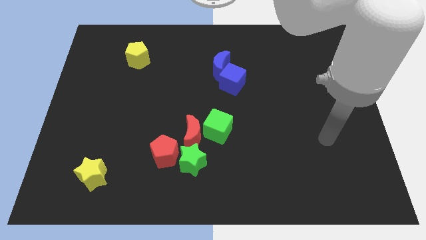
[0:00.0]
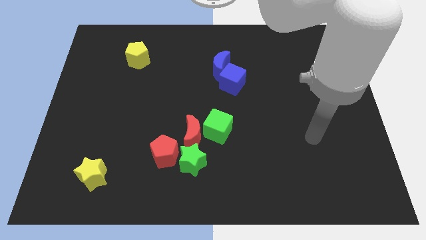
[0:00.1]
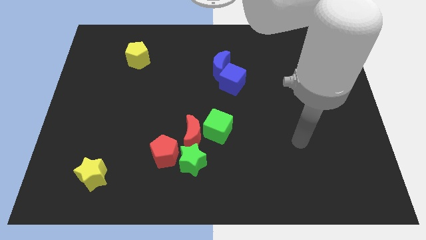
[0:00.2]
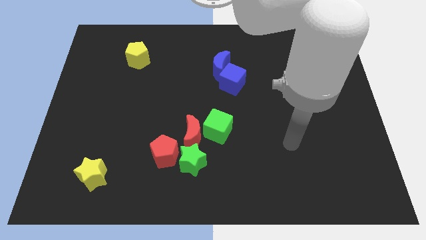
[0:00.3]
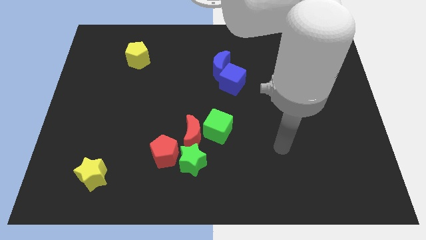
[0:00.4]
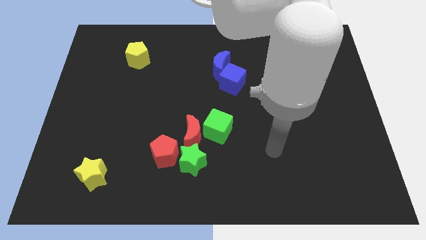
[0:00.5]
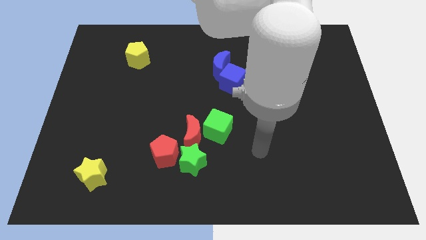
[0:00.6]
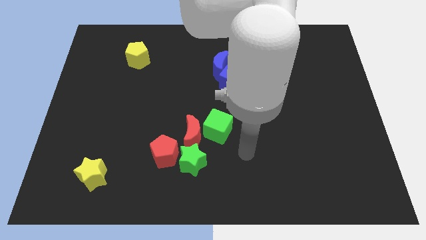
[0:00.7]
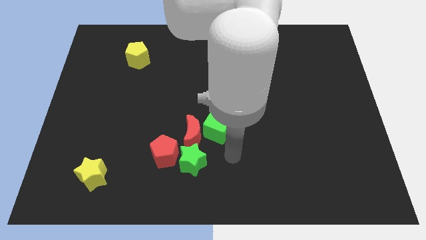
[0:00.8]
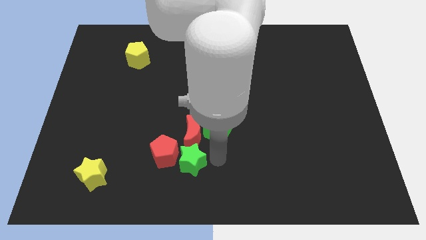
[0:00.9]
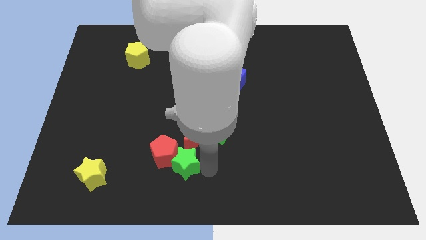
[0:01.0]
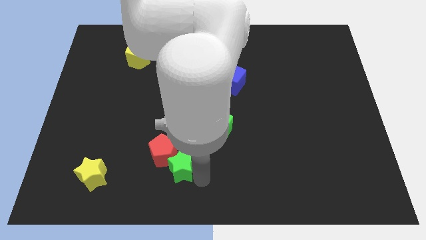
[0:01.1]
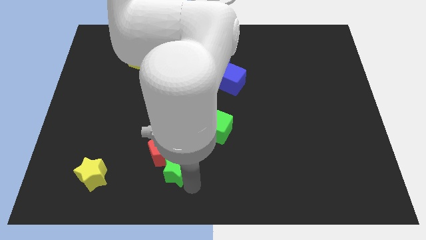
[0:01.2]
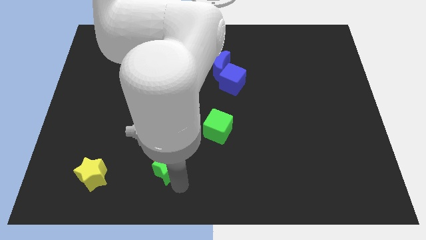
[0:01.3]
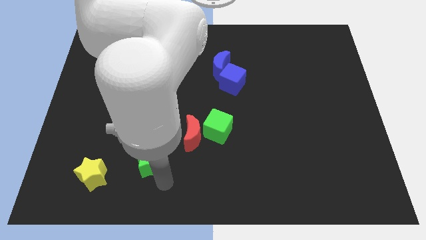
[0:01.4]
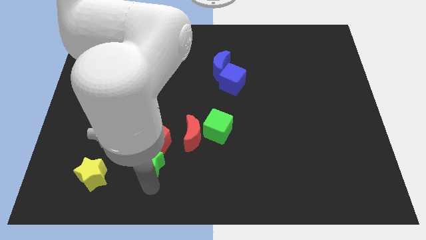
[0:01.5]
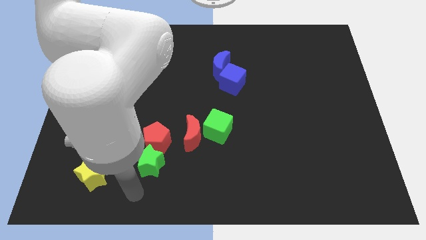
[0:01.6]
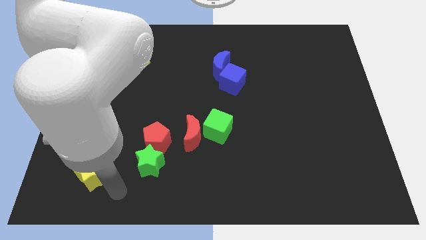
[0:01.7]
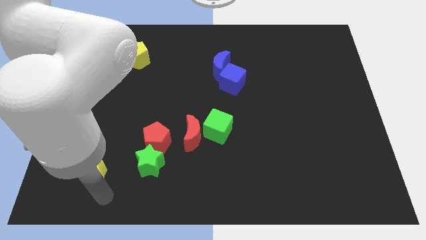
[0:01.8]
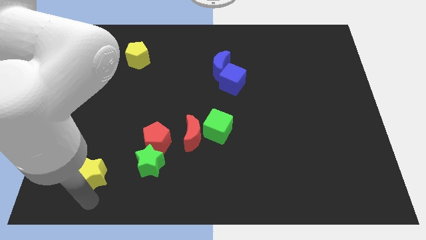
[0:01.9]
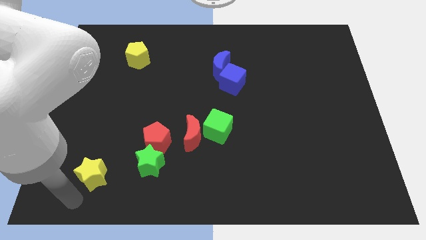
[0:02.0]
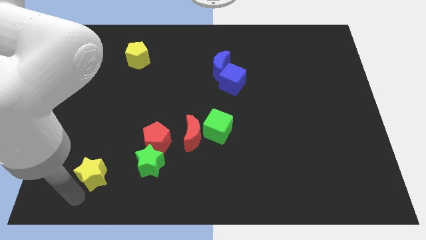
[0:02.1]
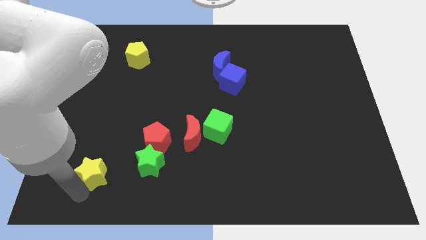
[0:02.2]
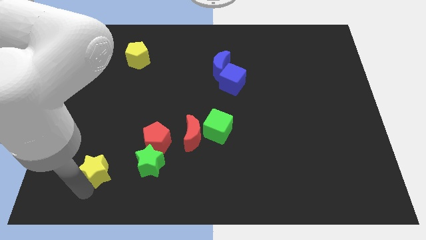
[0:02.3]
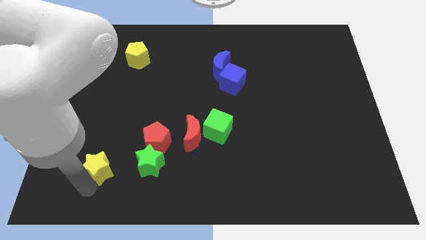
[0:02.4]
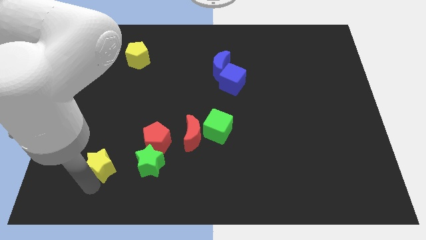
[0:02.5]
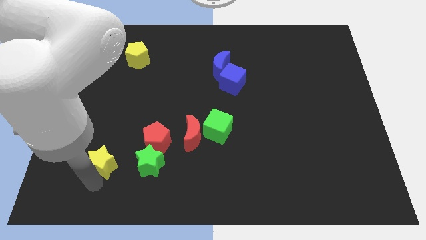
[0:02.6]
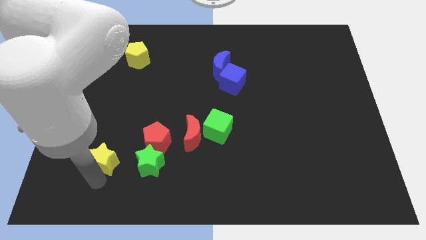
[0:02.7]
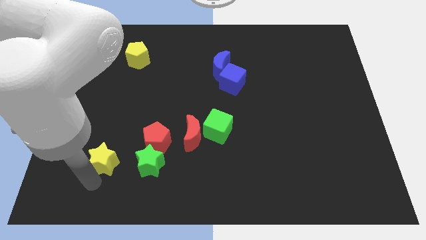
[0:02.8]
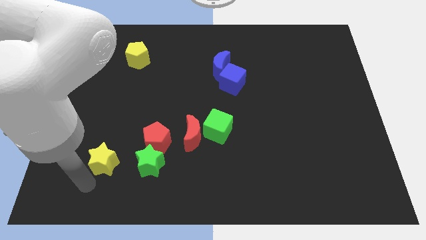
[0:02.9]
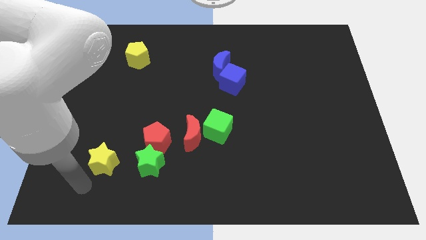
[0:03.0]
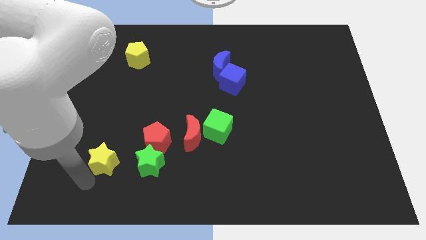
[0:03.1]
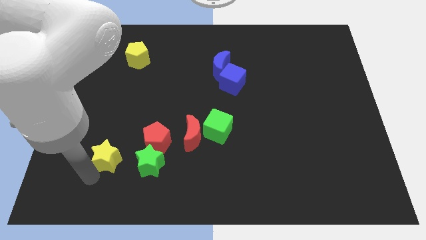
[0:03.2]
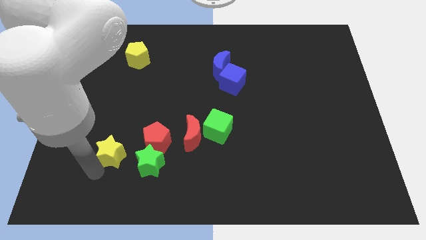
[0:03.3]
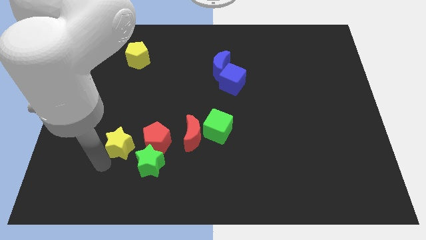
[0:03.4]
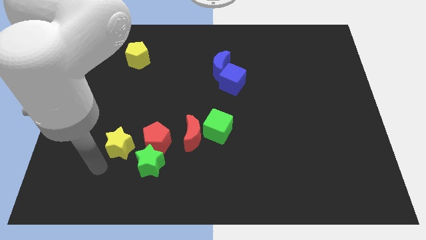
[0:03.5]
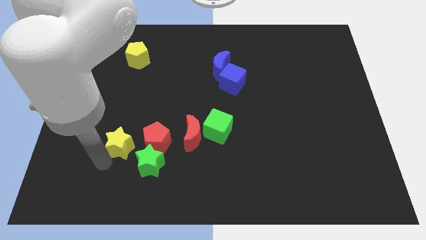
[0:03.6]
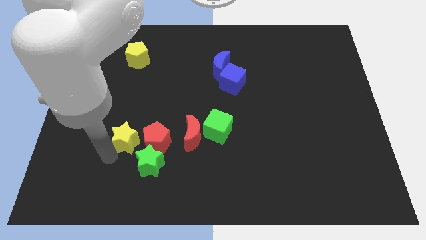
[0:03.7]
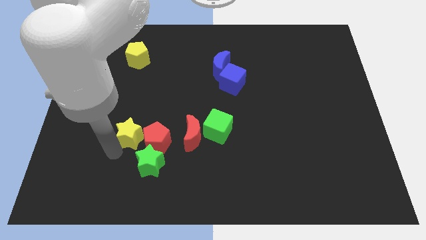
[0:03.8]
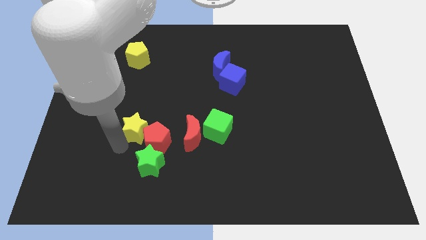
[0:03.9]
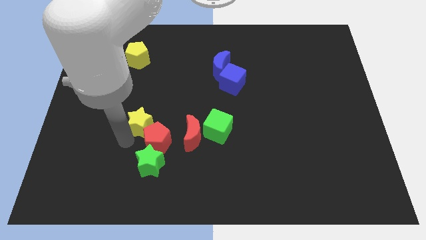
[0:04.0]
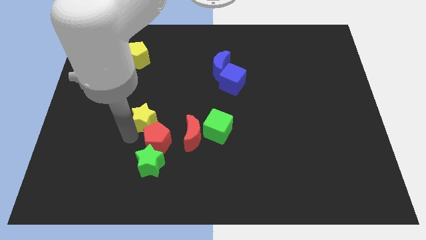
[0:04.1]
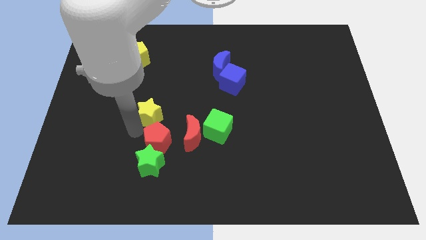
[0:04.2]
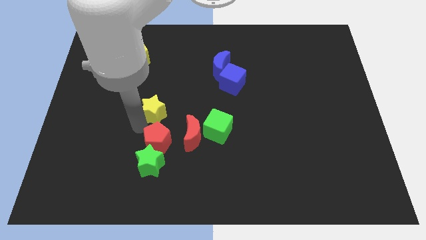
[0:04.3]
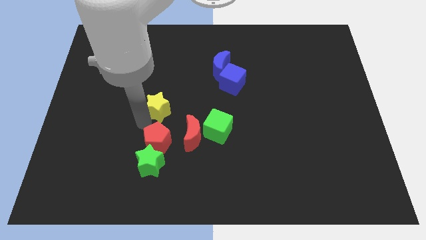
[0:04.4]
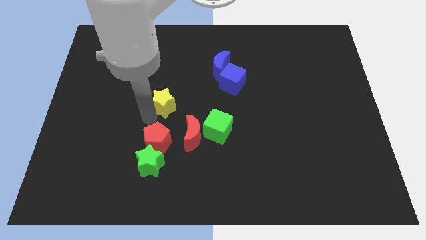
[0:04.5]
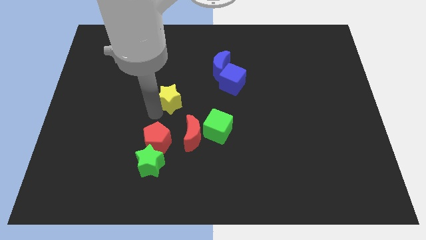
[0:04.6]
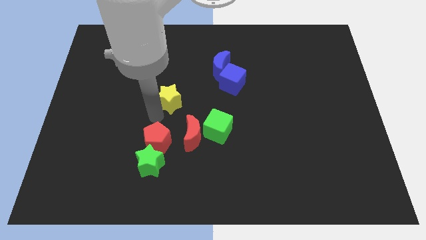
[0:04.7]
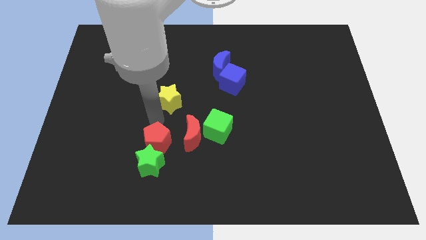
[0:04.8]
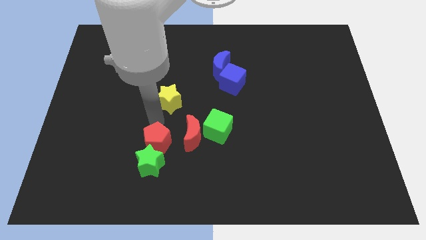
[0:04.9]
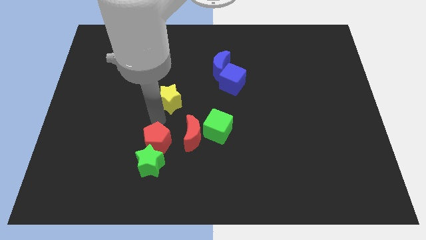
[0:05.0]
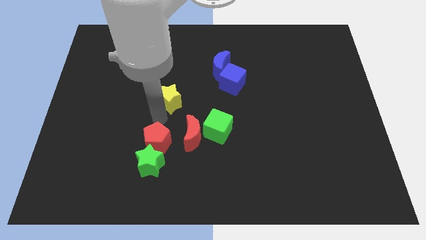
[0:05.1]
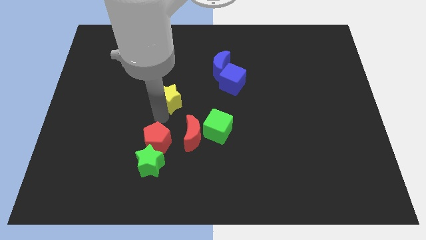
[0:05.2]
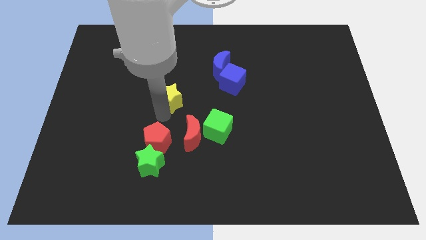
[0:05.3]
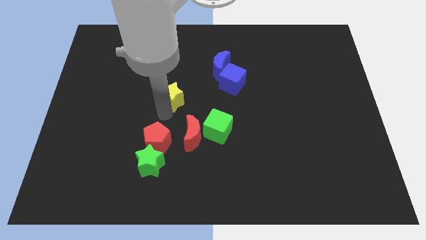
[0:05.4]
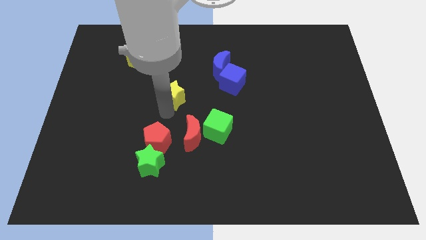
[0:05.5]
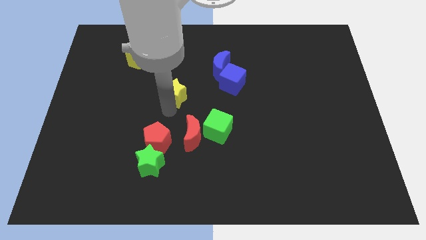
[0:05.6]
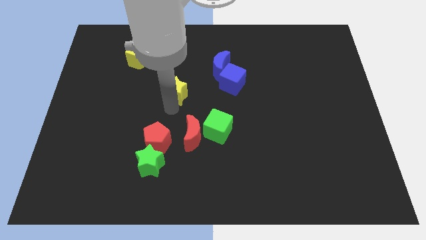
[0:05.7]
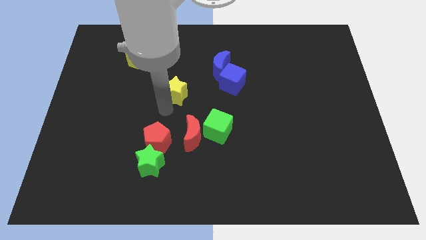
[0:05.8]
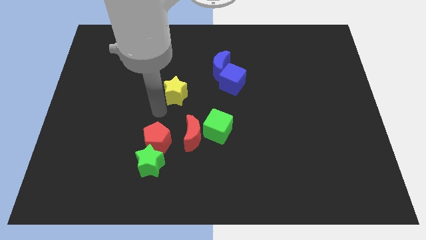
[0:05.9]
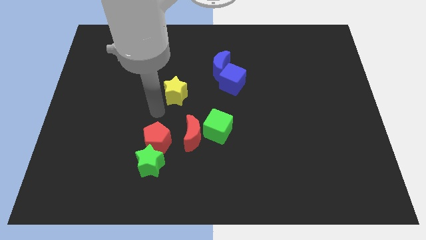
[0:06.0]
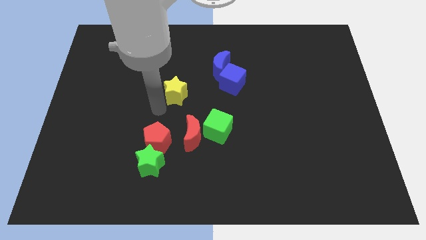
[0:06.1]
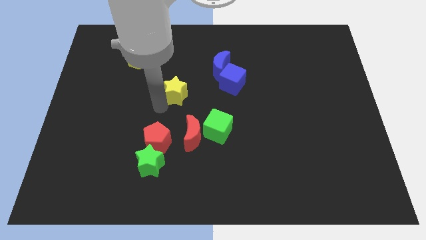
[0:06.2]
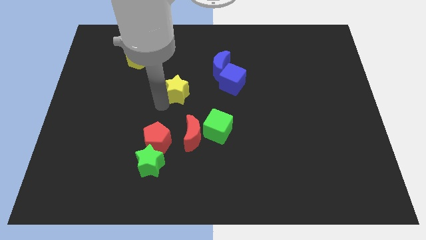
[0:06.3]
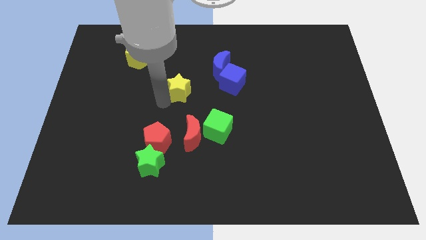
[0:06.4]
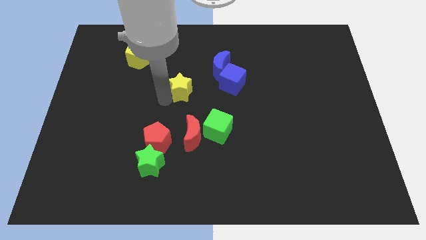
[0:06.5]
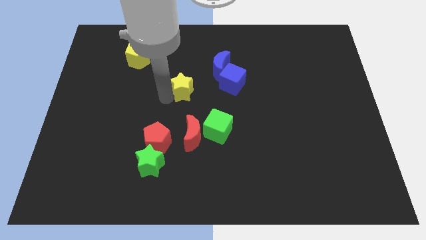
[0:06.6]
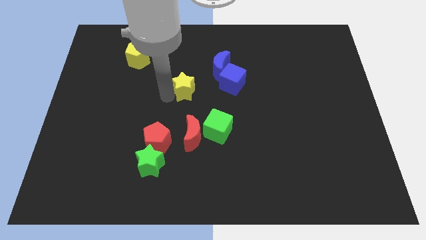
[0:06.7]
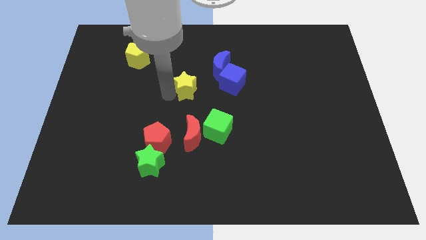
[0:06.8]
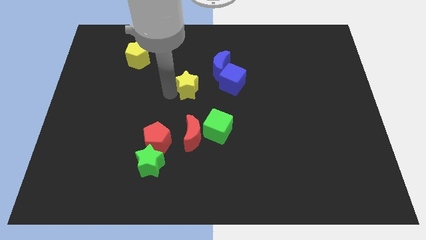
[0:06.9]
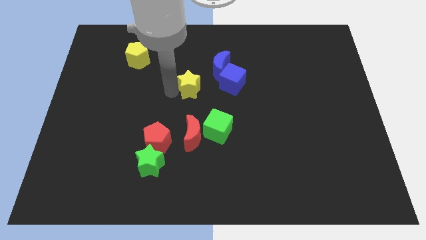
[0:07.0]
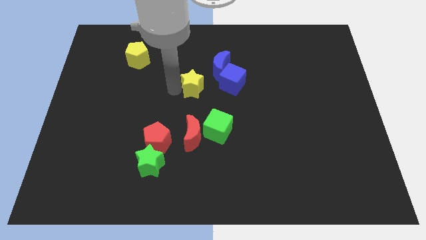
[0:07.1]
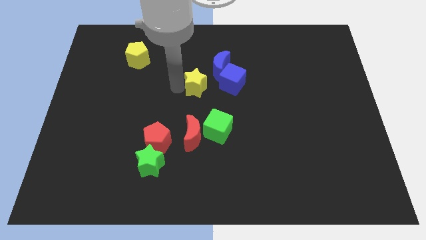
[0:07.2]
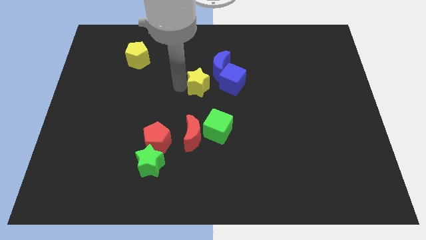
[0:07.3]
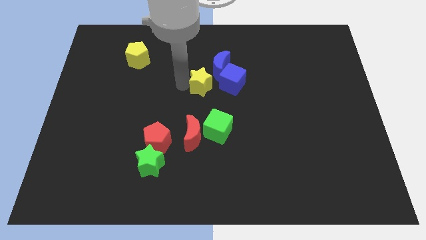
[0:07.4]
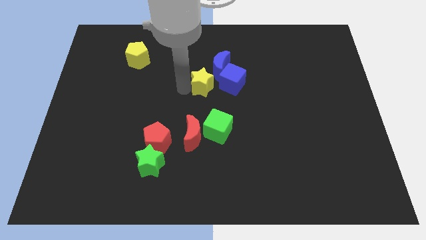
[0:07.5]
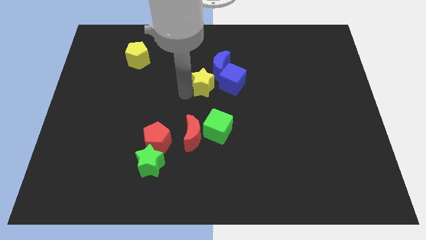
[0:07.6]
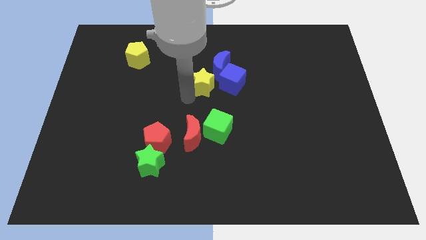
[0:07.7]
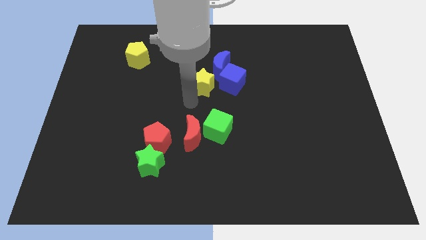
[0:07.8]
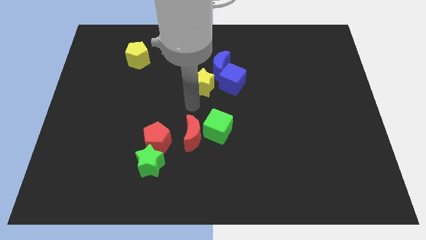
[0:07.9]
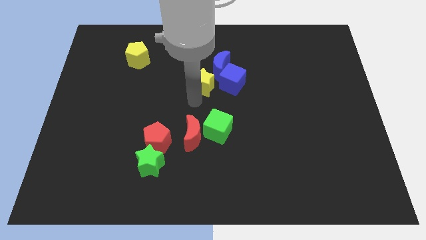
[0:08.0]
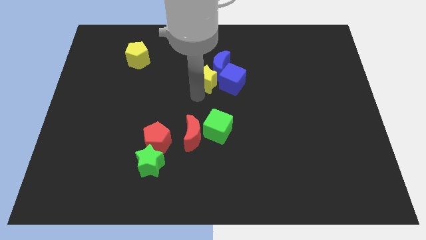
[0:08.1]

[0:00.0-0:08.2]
slide the yellow star diagonally up and to the left of the blue cube
